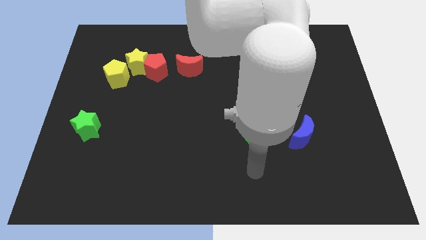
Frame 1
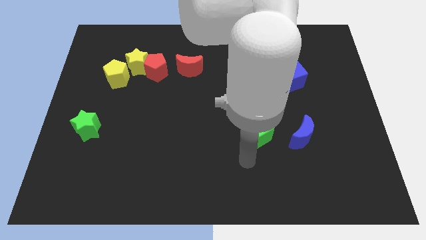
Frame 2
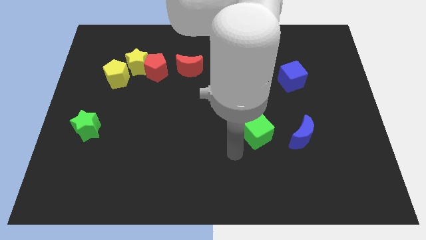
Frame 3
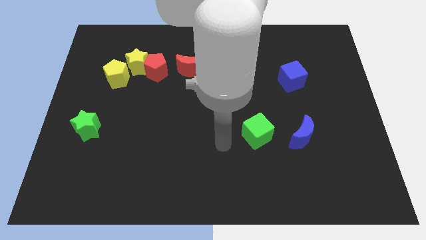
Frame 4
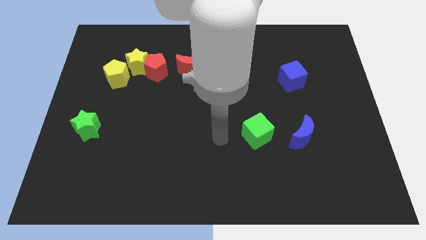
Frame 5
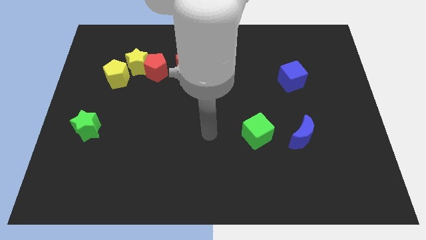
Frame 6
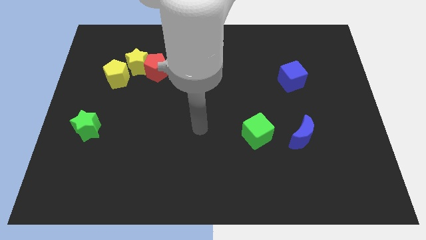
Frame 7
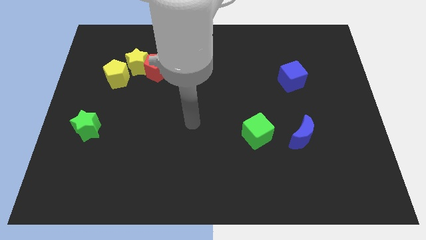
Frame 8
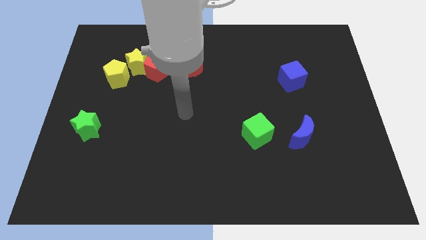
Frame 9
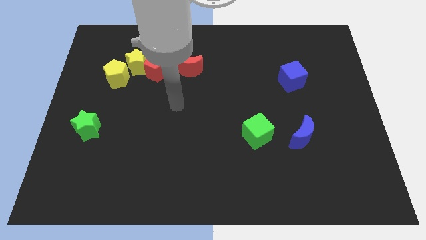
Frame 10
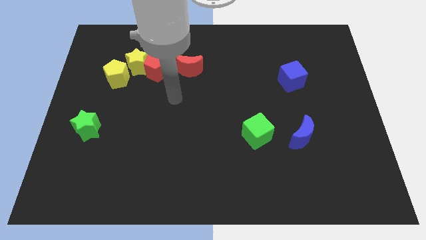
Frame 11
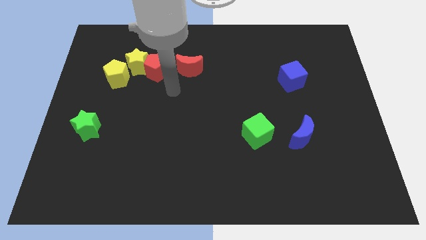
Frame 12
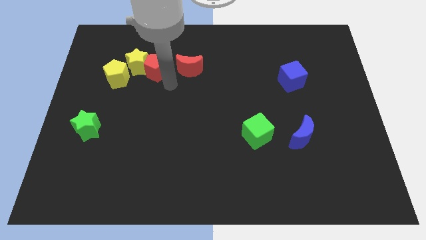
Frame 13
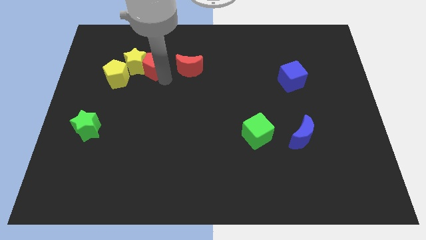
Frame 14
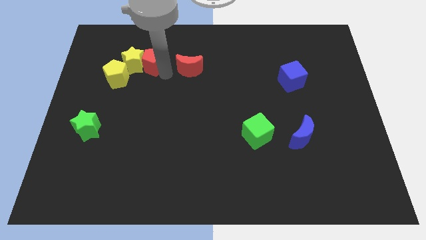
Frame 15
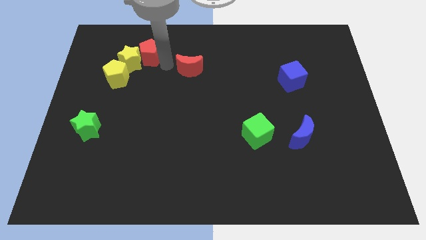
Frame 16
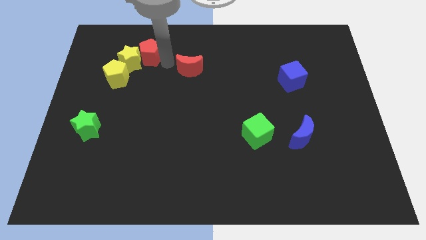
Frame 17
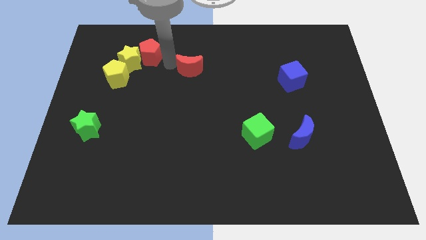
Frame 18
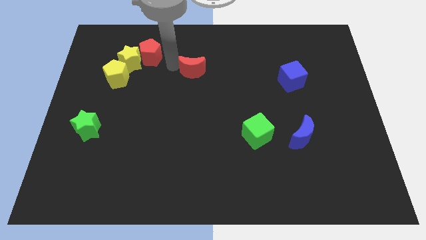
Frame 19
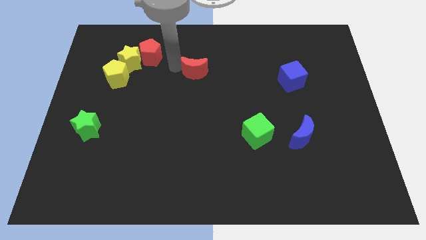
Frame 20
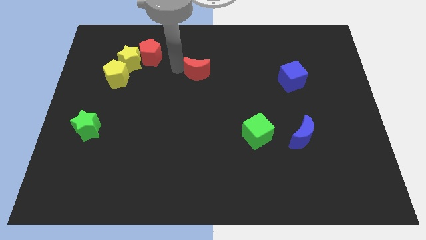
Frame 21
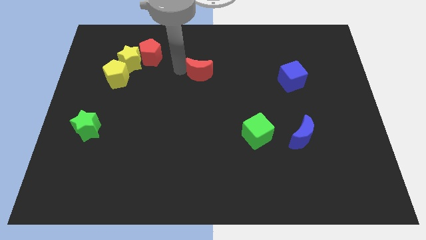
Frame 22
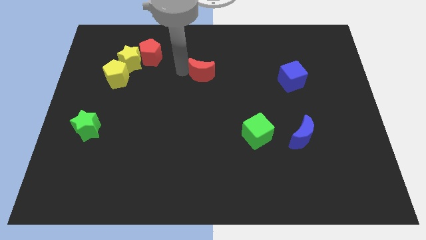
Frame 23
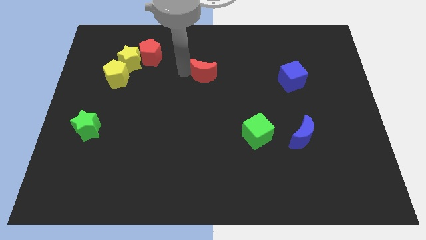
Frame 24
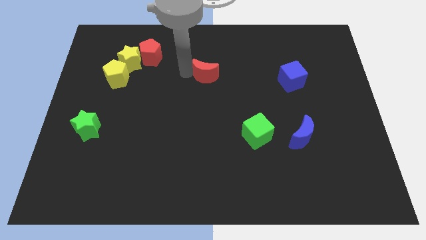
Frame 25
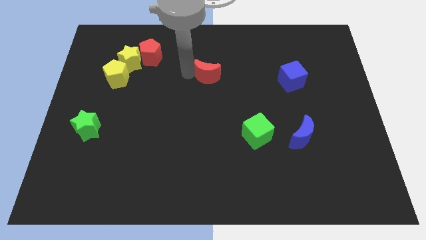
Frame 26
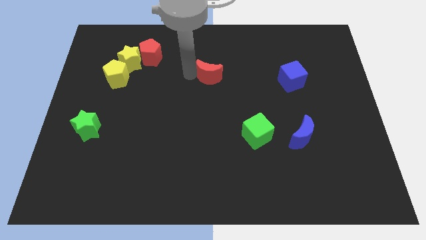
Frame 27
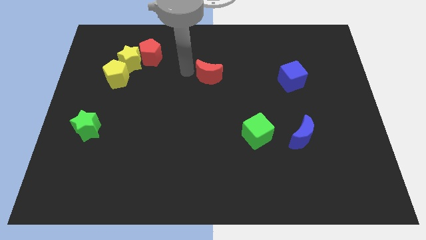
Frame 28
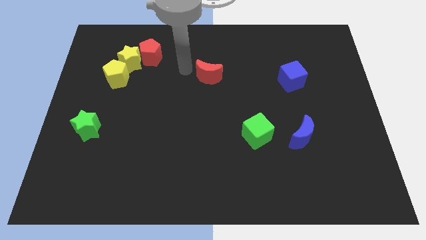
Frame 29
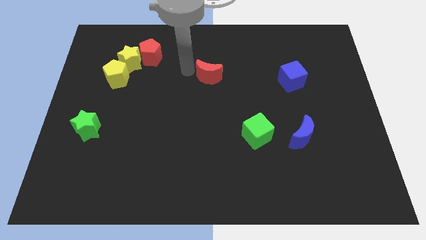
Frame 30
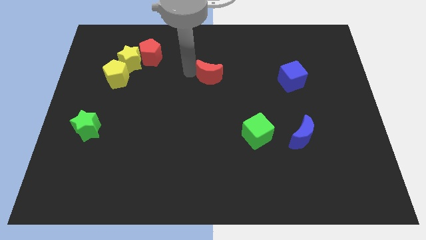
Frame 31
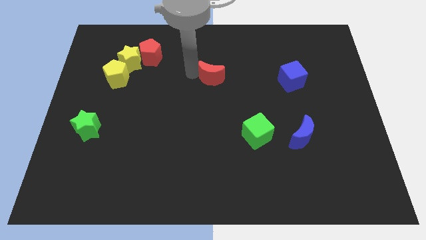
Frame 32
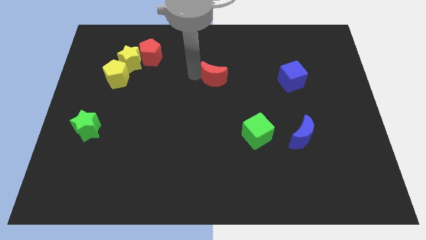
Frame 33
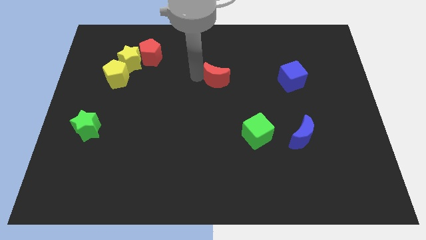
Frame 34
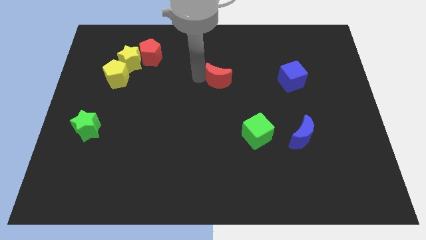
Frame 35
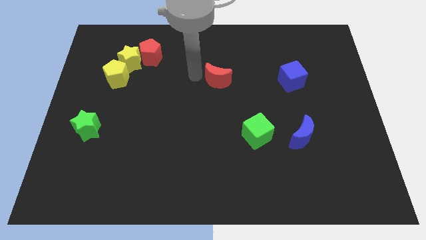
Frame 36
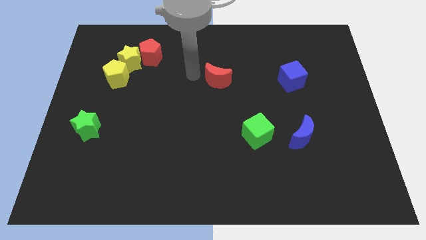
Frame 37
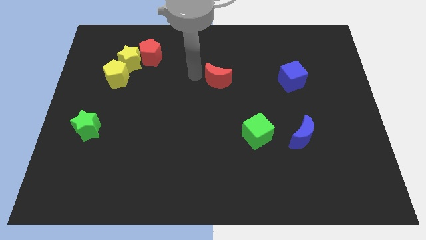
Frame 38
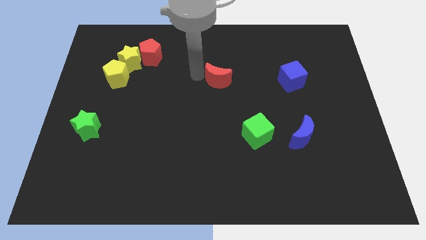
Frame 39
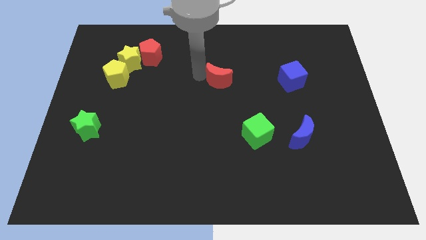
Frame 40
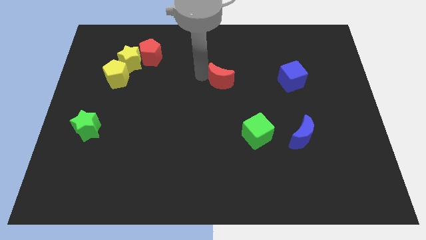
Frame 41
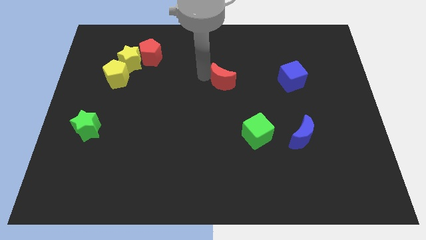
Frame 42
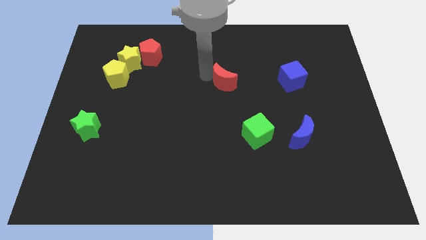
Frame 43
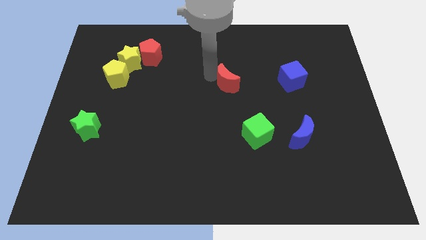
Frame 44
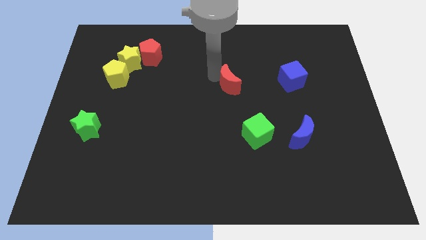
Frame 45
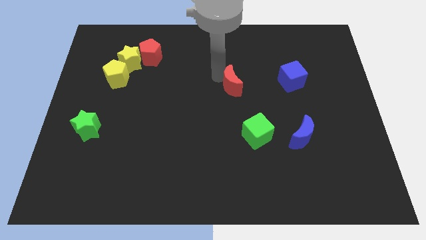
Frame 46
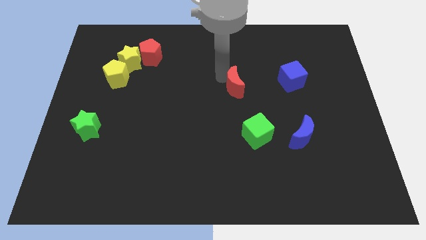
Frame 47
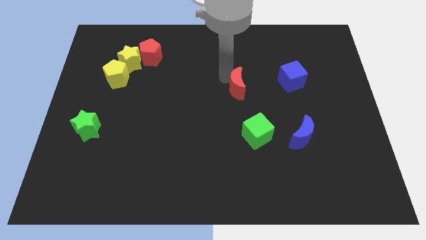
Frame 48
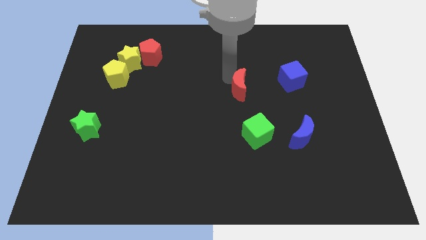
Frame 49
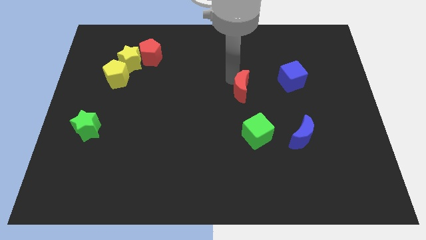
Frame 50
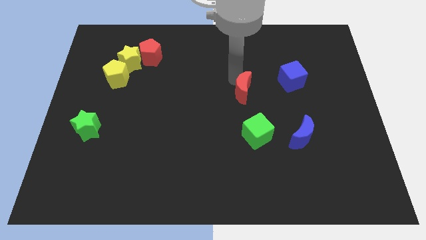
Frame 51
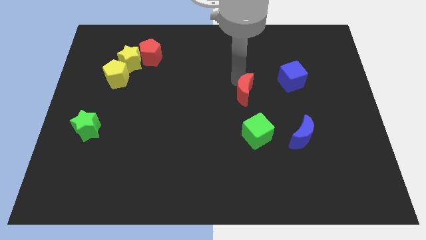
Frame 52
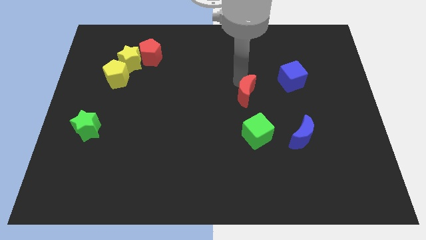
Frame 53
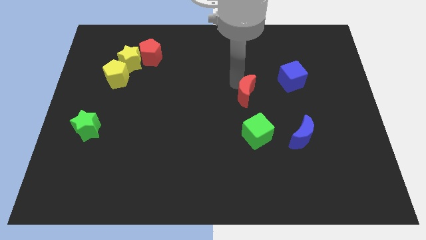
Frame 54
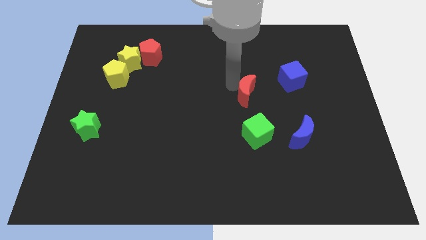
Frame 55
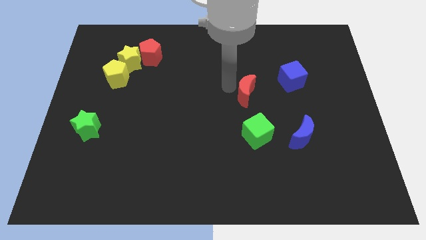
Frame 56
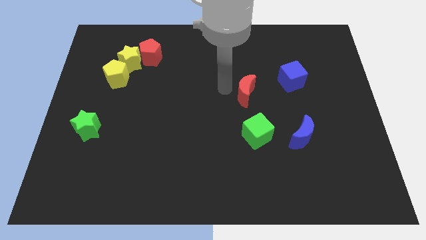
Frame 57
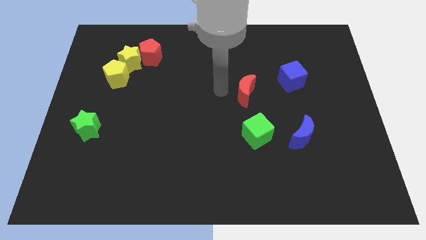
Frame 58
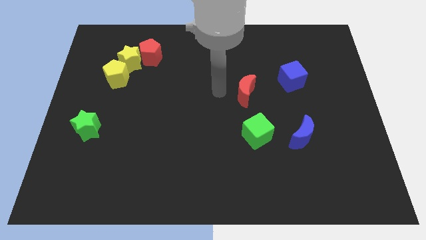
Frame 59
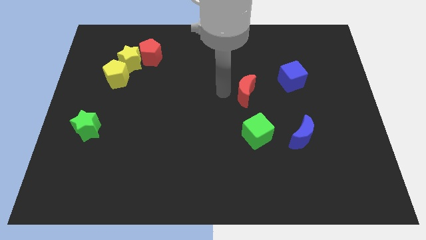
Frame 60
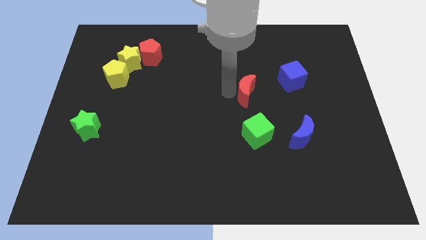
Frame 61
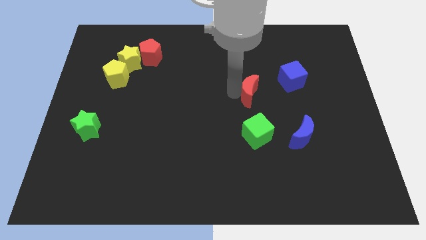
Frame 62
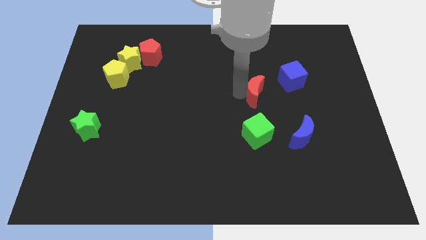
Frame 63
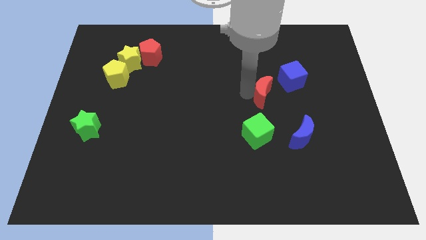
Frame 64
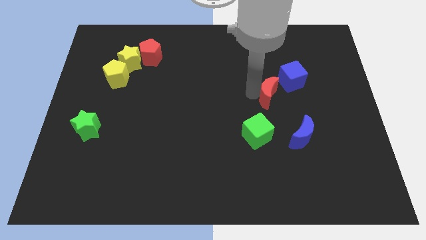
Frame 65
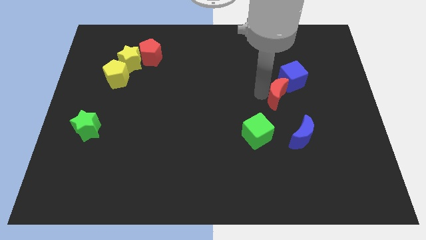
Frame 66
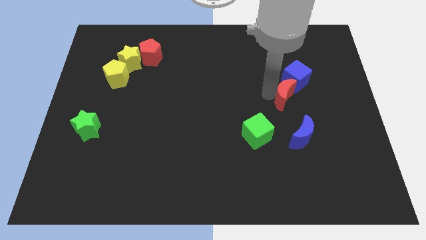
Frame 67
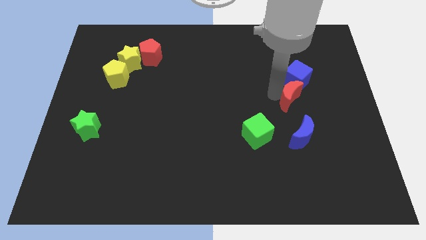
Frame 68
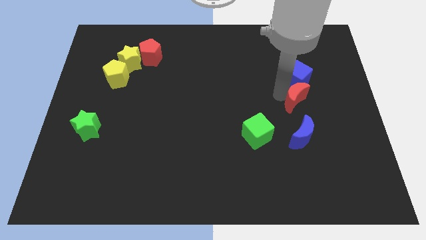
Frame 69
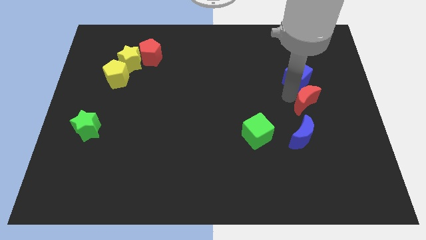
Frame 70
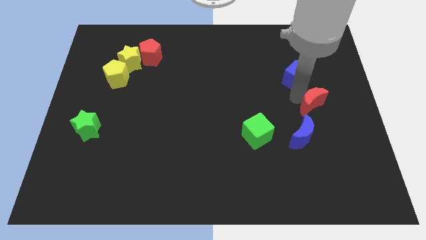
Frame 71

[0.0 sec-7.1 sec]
slide the red moon to the top right side of the blue moon
